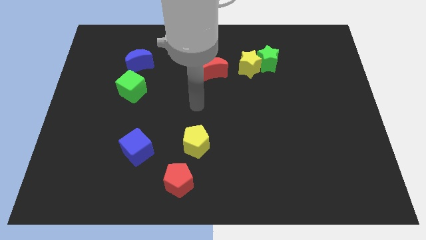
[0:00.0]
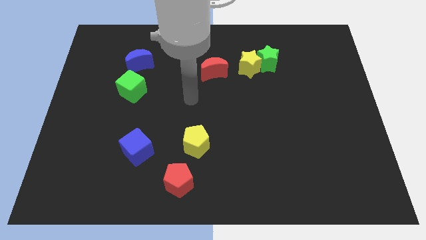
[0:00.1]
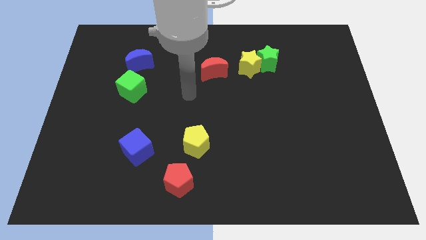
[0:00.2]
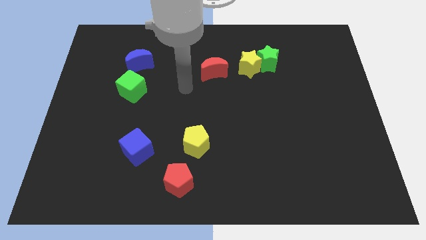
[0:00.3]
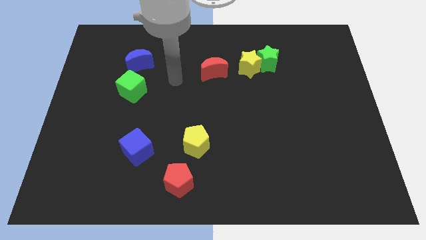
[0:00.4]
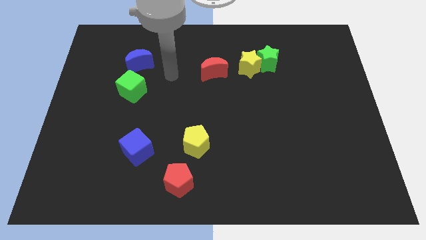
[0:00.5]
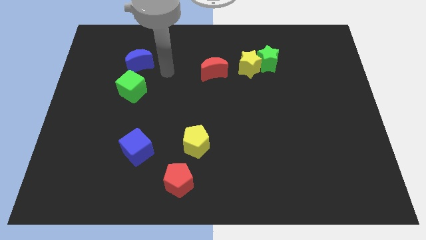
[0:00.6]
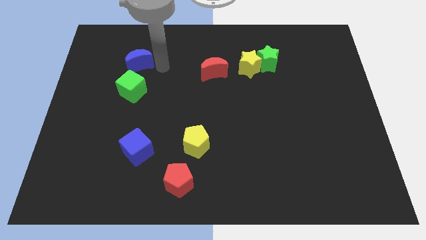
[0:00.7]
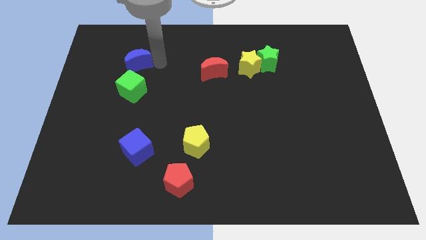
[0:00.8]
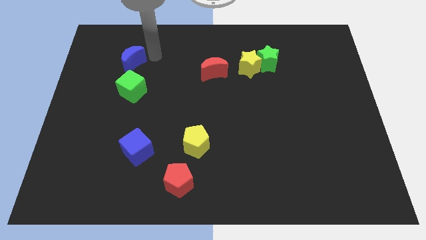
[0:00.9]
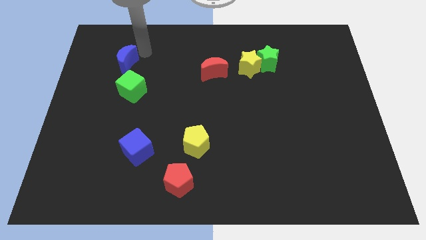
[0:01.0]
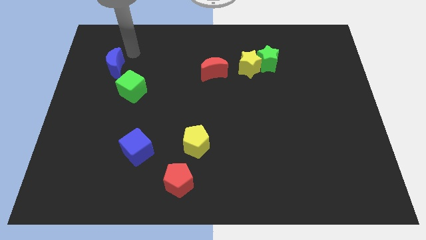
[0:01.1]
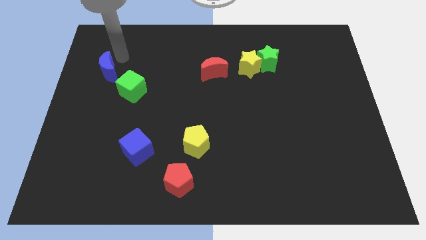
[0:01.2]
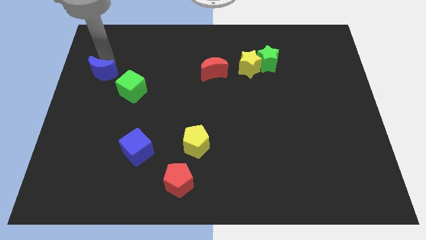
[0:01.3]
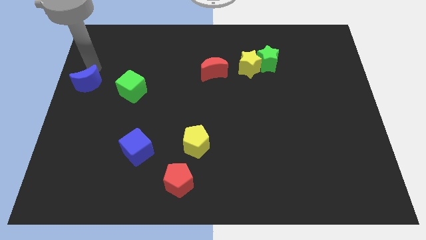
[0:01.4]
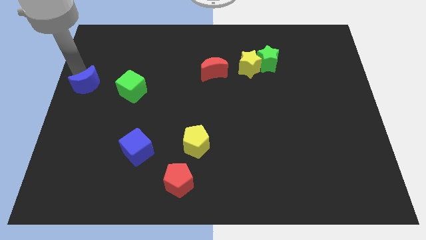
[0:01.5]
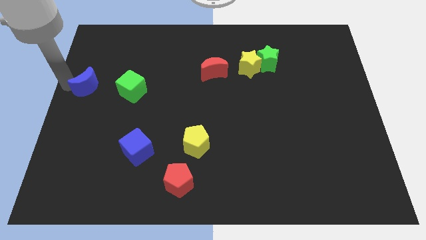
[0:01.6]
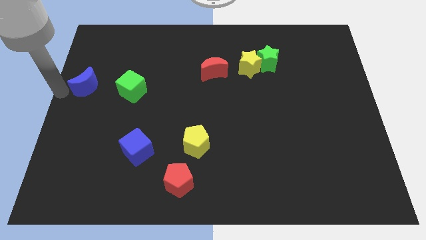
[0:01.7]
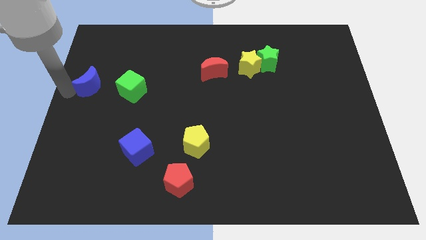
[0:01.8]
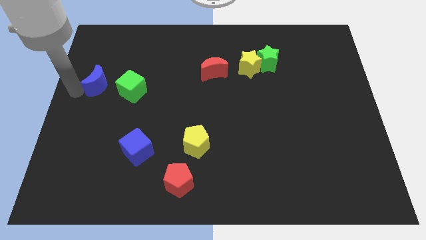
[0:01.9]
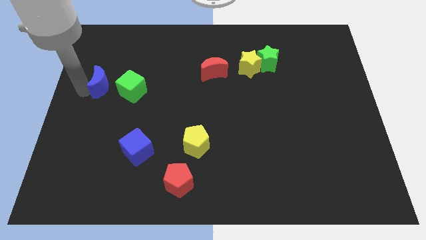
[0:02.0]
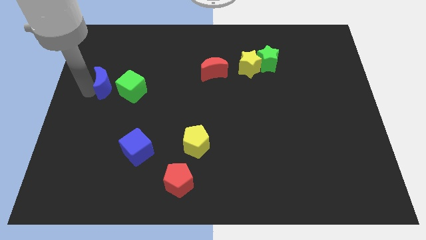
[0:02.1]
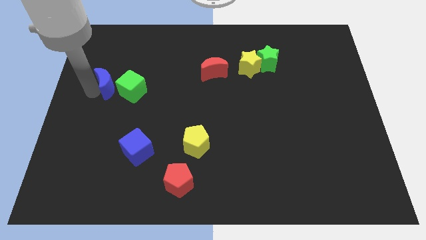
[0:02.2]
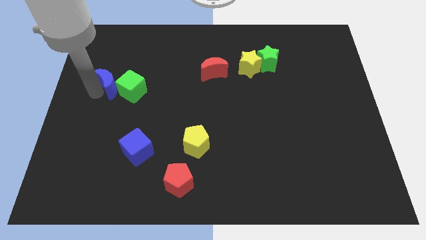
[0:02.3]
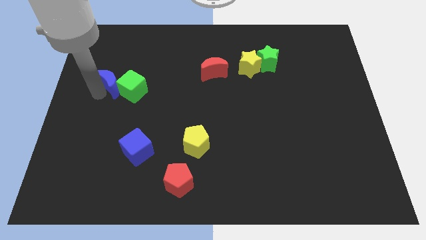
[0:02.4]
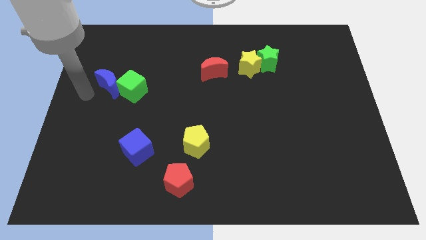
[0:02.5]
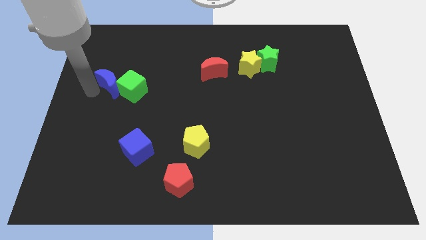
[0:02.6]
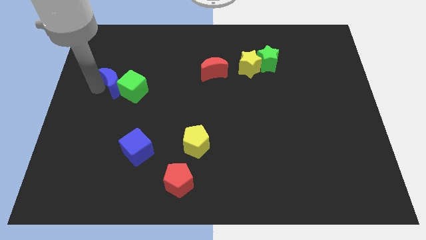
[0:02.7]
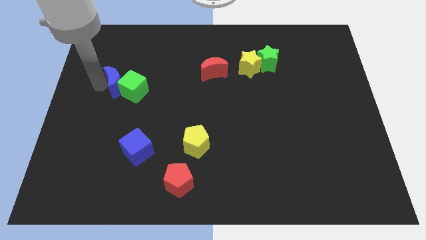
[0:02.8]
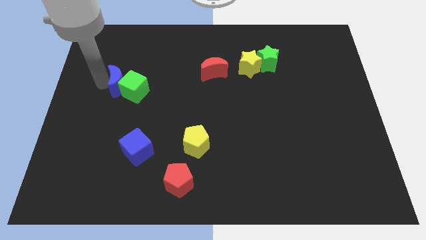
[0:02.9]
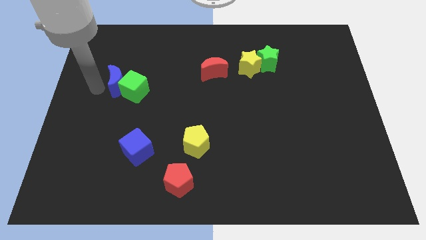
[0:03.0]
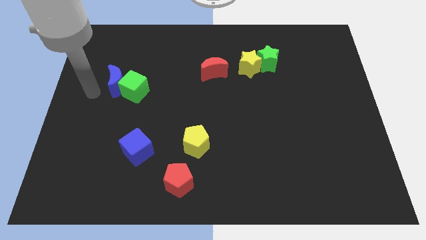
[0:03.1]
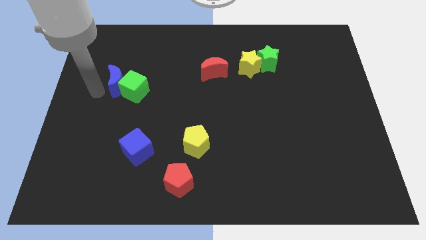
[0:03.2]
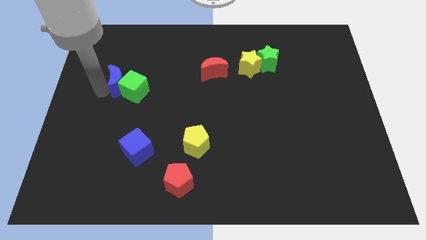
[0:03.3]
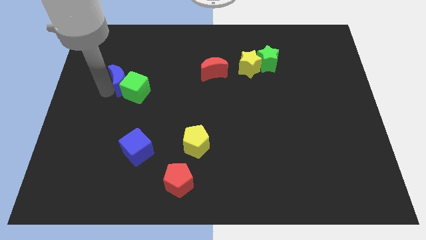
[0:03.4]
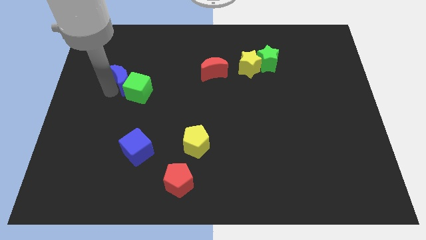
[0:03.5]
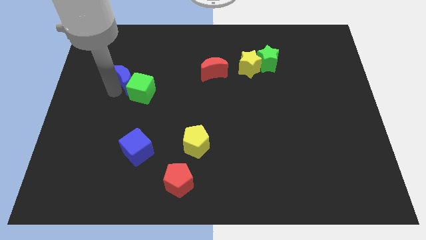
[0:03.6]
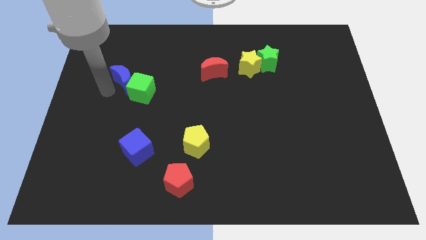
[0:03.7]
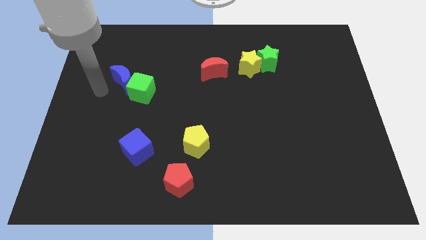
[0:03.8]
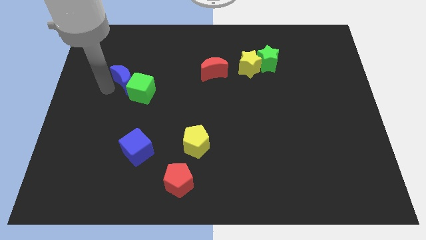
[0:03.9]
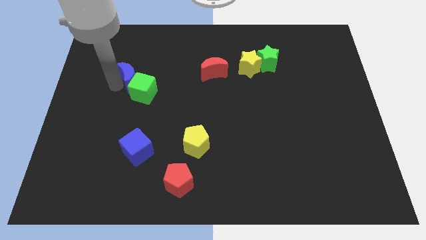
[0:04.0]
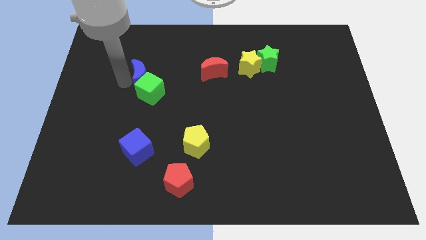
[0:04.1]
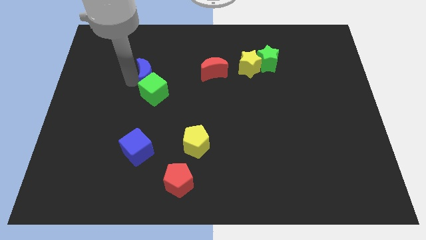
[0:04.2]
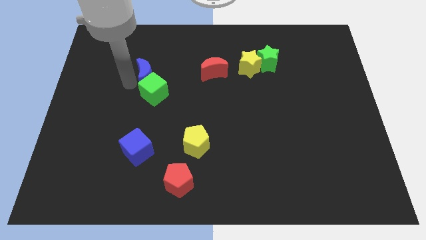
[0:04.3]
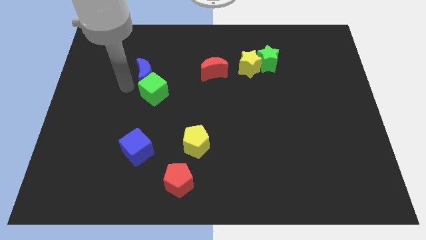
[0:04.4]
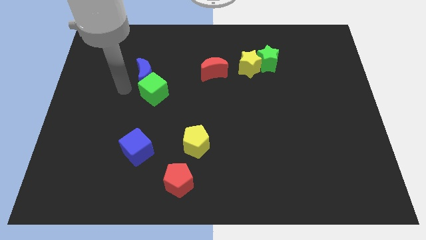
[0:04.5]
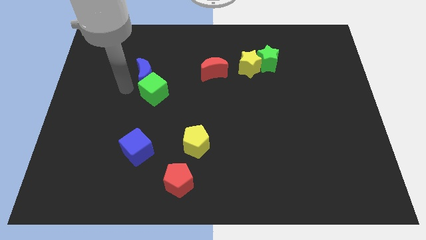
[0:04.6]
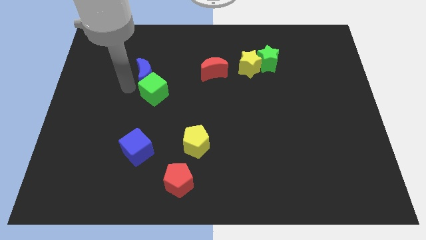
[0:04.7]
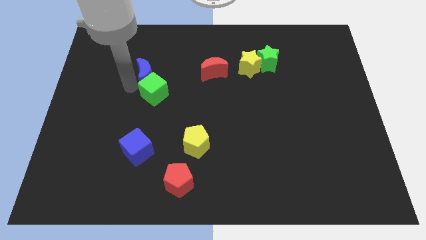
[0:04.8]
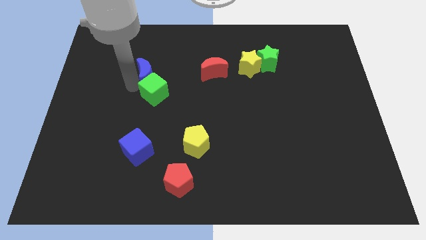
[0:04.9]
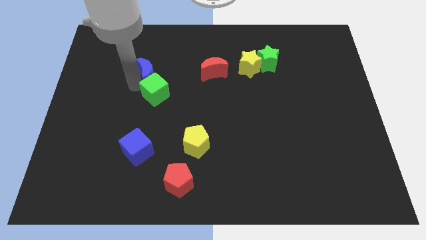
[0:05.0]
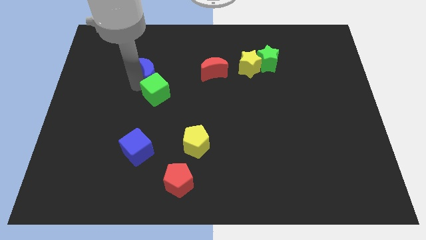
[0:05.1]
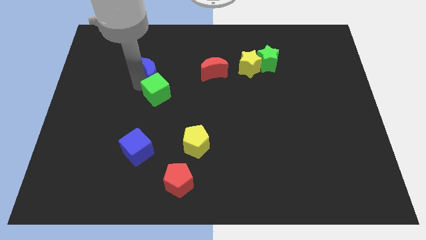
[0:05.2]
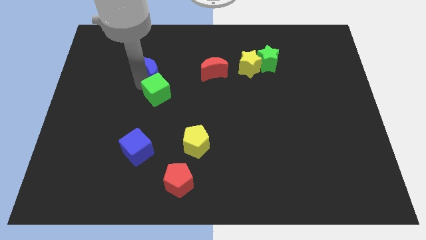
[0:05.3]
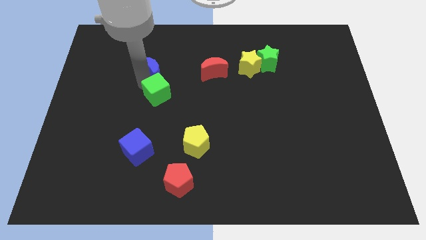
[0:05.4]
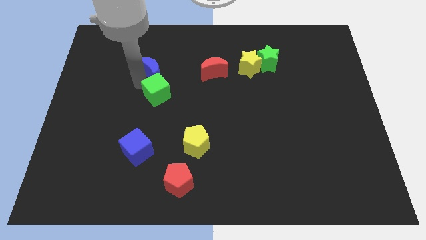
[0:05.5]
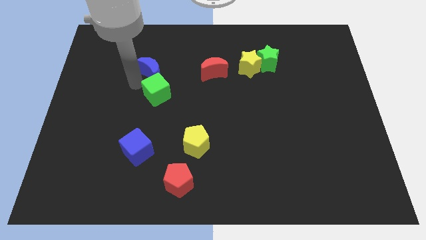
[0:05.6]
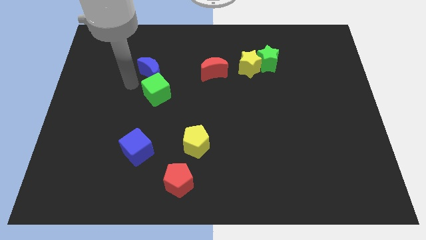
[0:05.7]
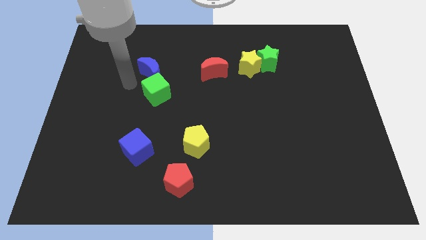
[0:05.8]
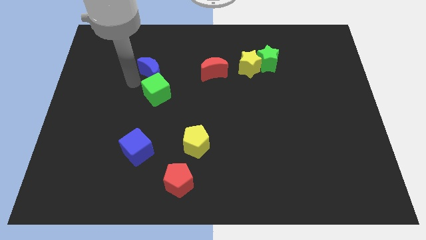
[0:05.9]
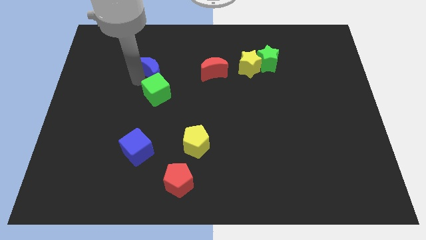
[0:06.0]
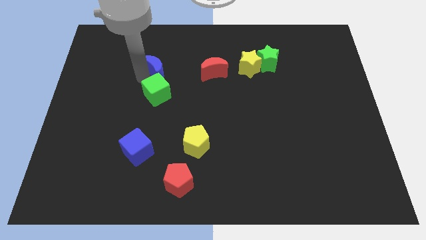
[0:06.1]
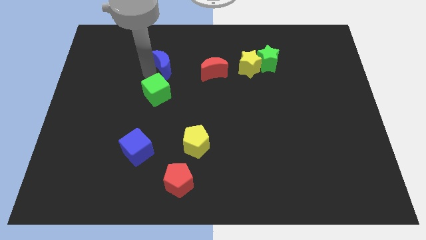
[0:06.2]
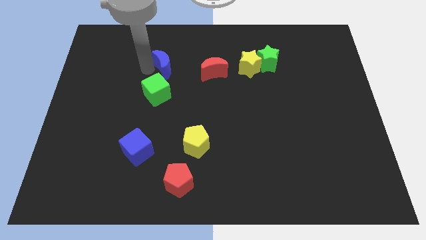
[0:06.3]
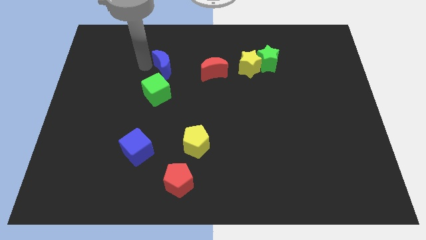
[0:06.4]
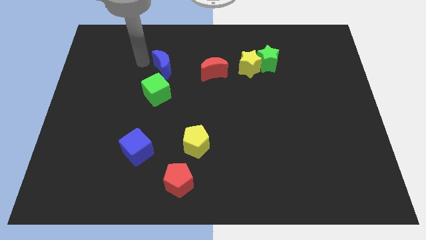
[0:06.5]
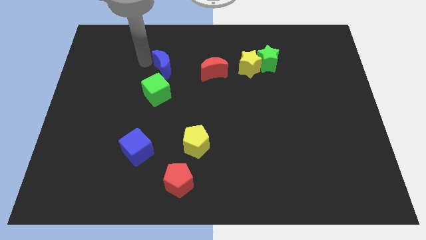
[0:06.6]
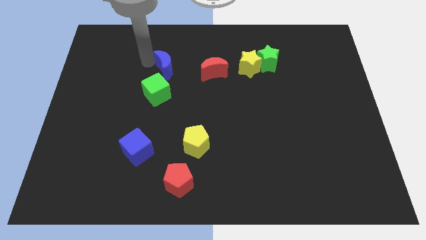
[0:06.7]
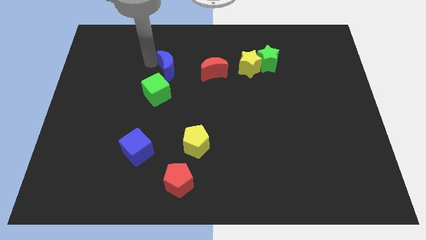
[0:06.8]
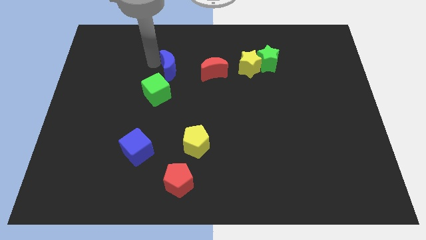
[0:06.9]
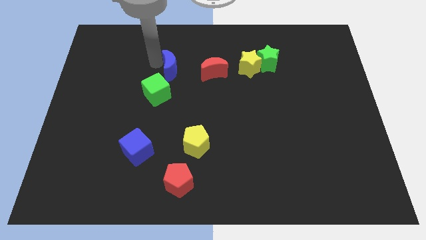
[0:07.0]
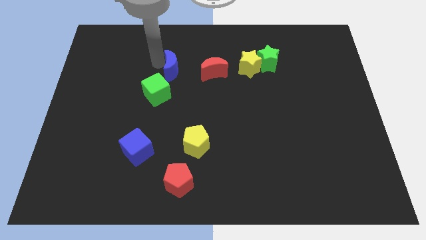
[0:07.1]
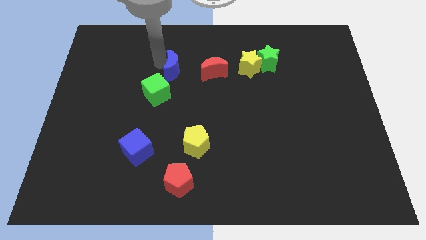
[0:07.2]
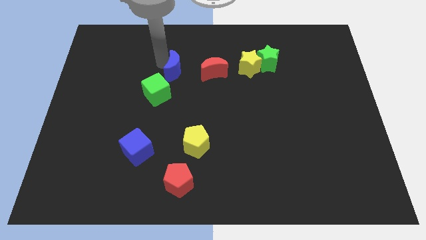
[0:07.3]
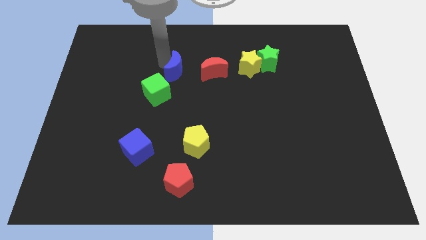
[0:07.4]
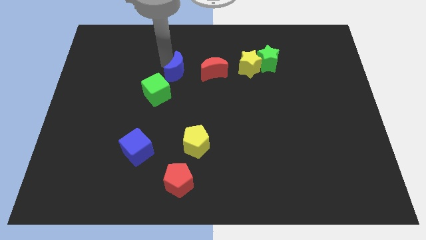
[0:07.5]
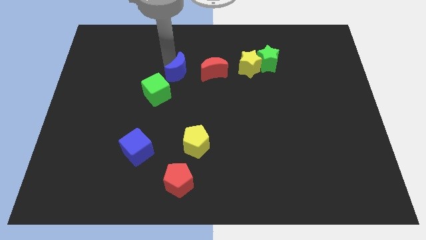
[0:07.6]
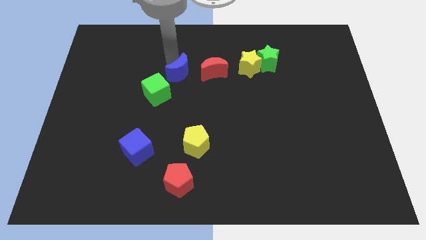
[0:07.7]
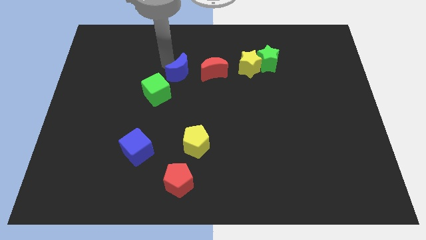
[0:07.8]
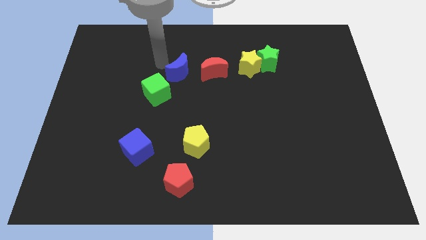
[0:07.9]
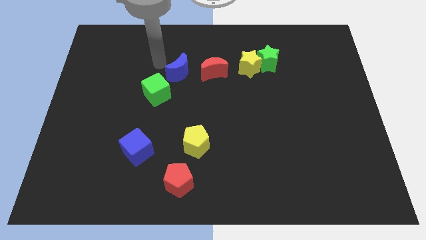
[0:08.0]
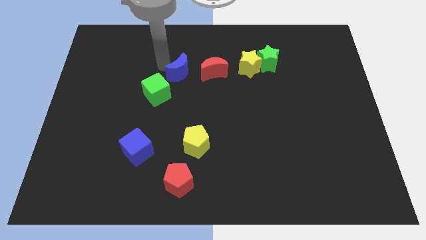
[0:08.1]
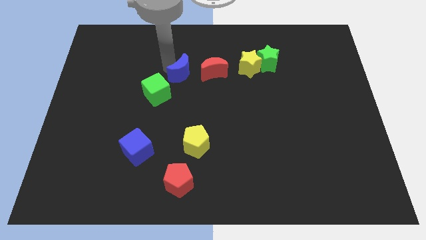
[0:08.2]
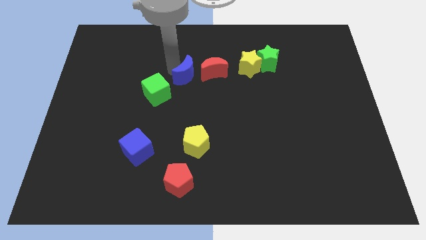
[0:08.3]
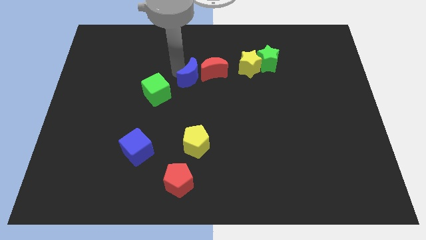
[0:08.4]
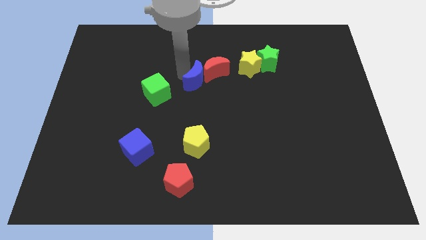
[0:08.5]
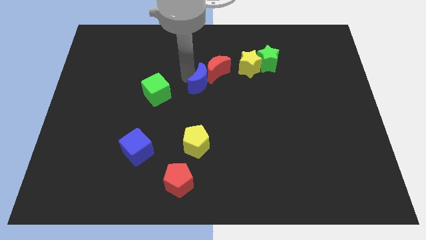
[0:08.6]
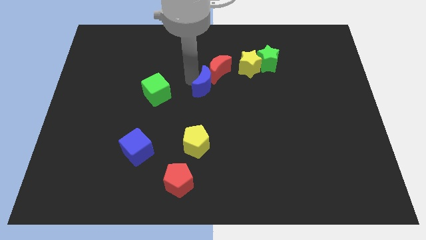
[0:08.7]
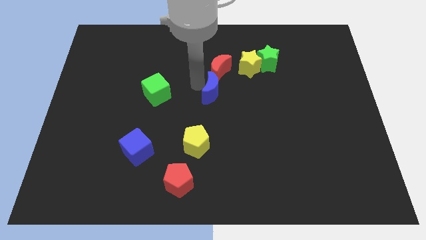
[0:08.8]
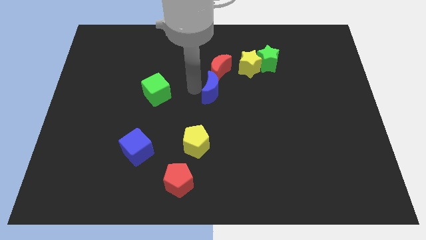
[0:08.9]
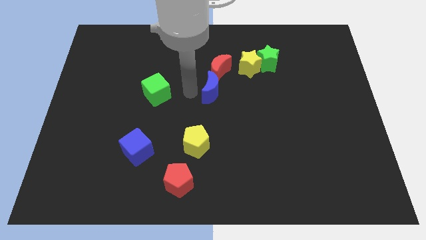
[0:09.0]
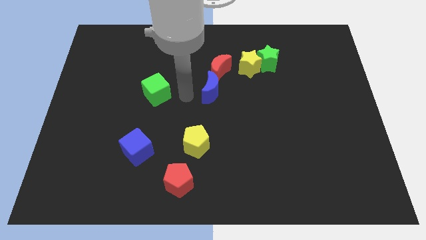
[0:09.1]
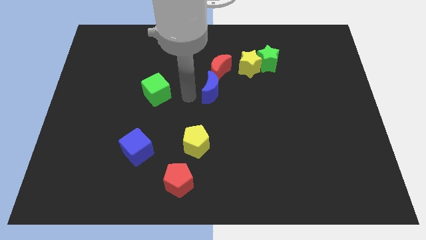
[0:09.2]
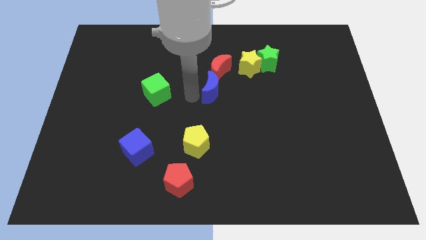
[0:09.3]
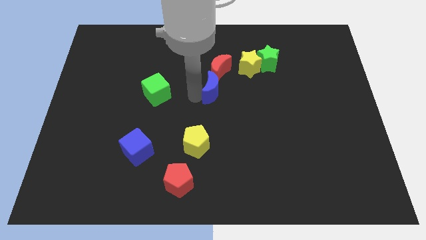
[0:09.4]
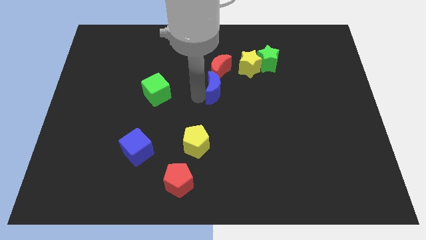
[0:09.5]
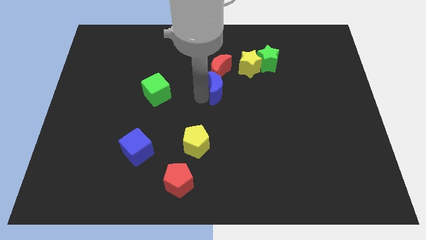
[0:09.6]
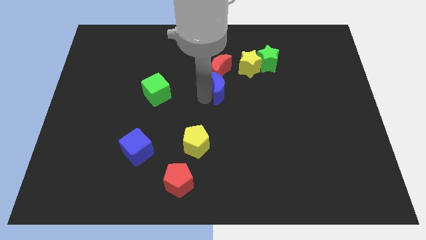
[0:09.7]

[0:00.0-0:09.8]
put the blue moon diagonally down and to the right of the red moon
